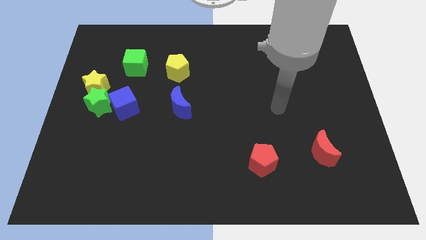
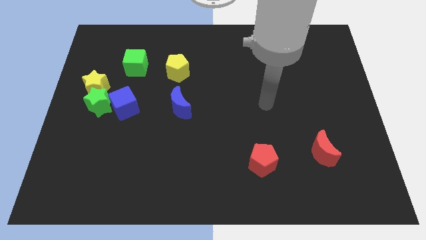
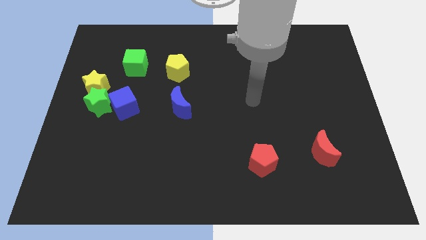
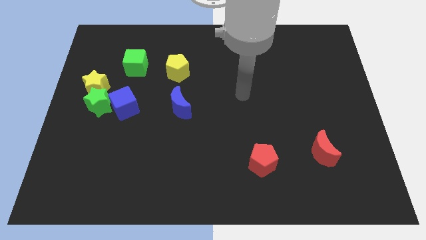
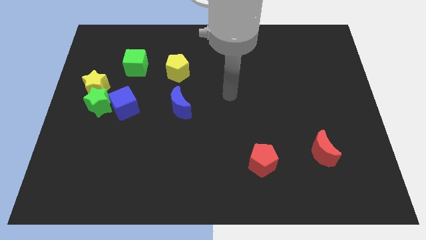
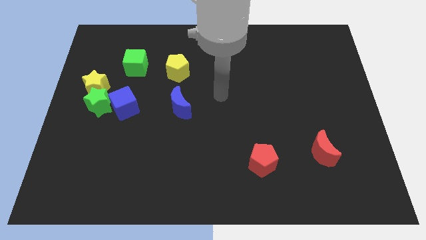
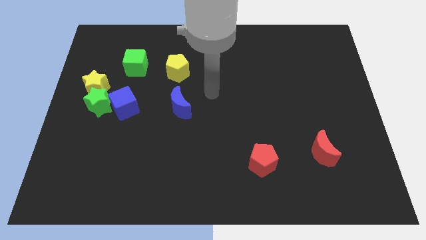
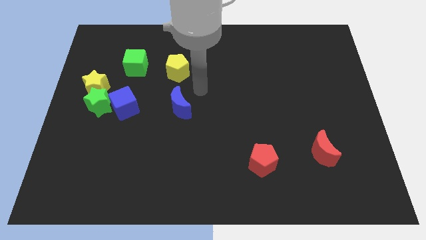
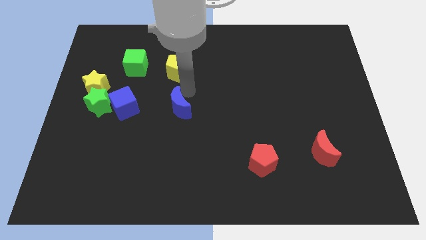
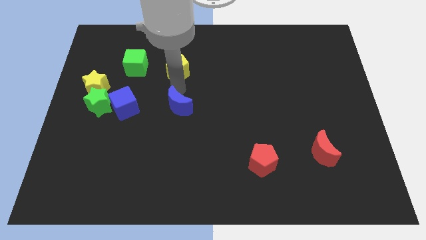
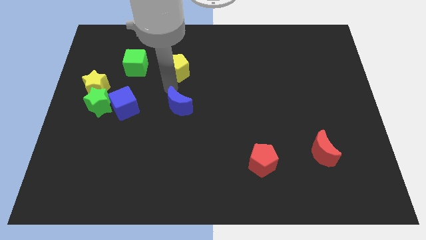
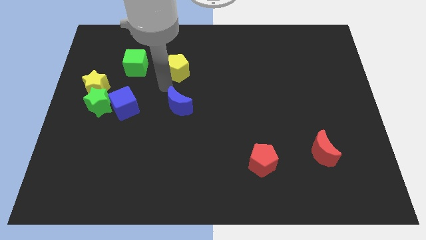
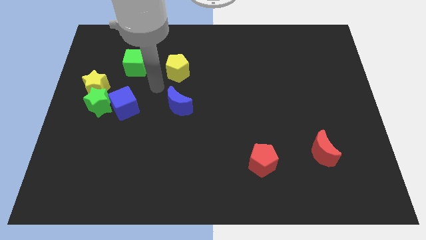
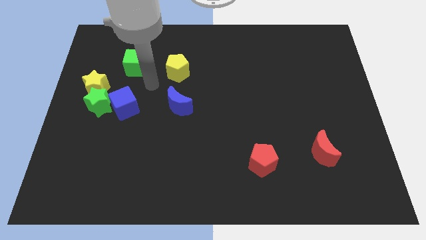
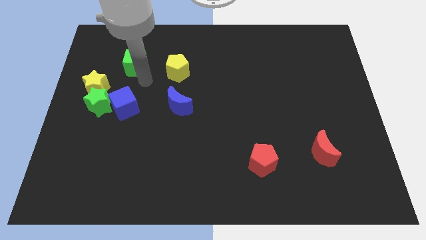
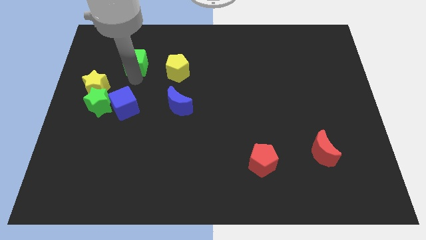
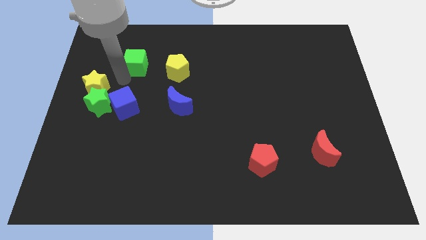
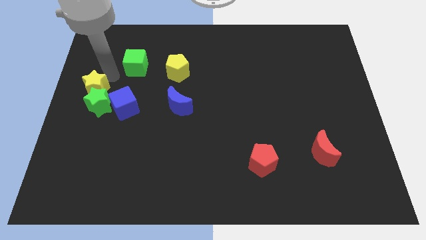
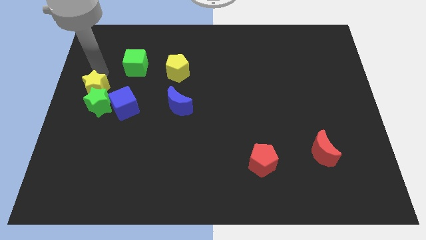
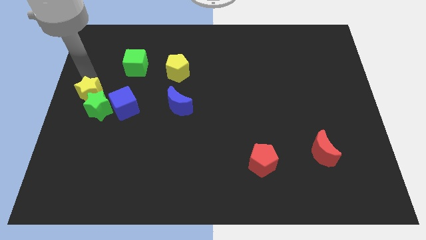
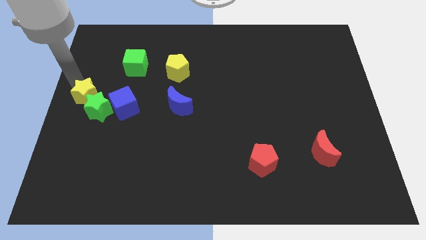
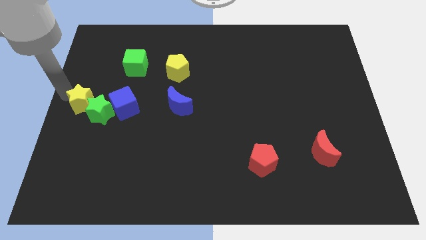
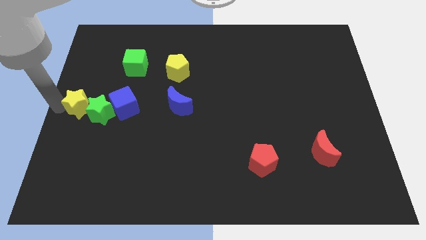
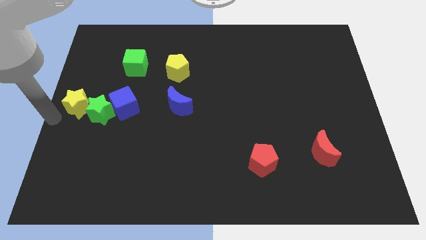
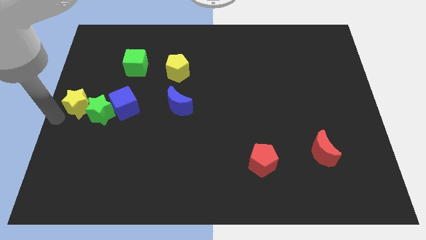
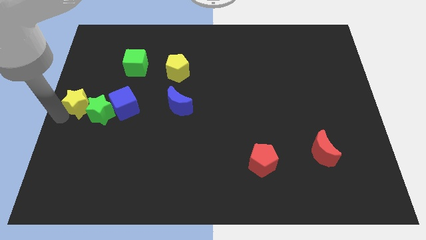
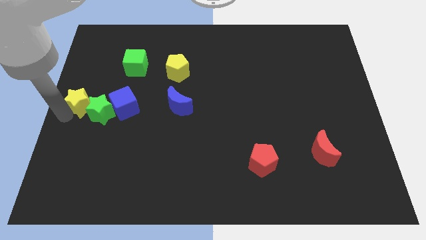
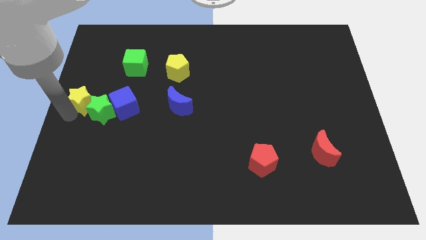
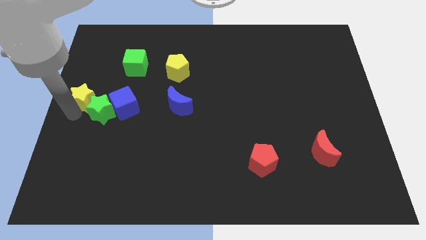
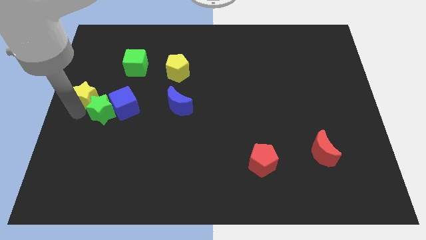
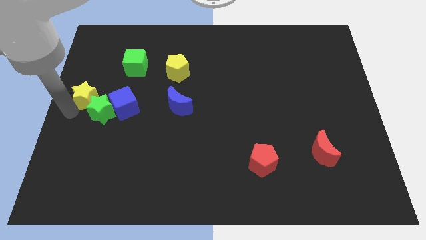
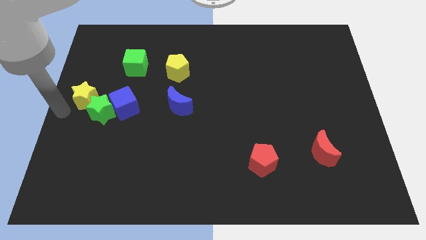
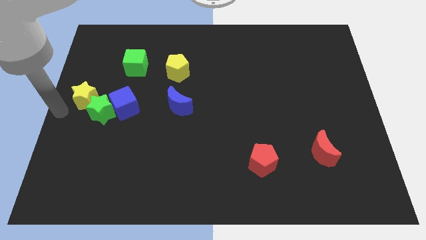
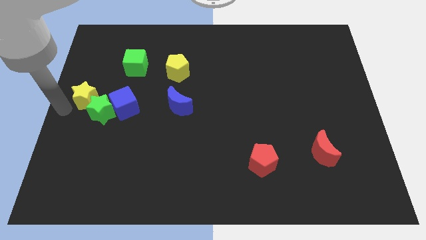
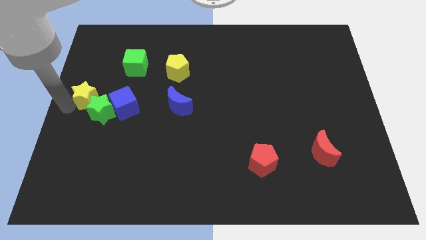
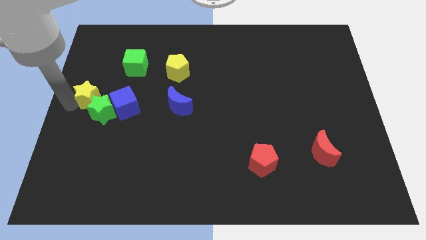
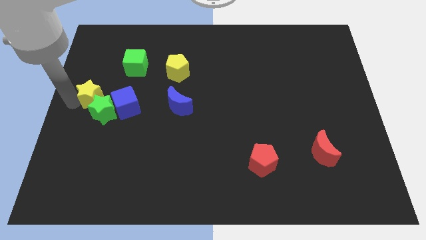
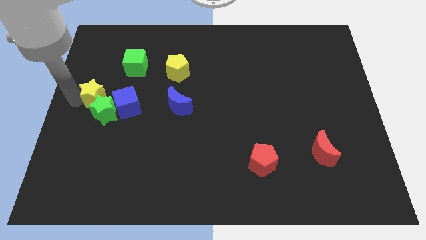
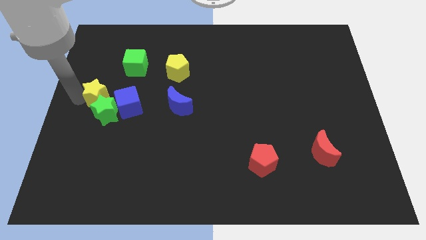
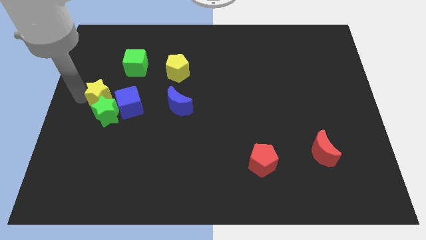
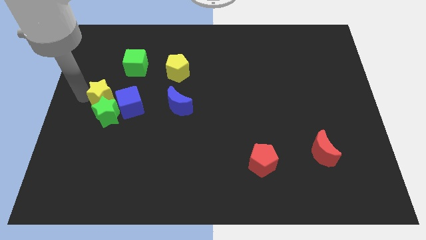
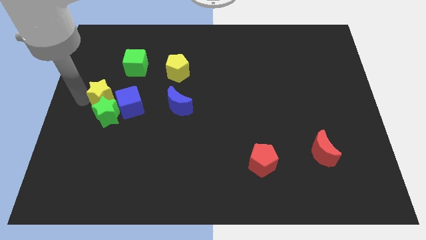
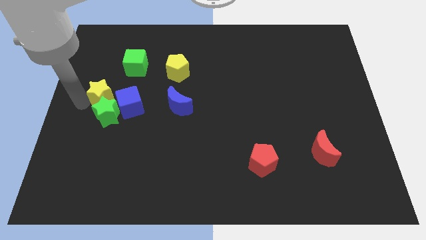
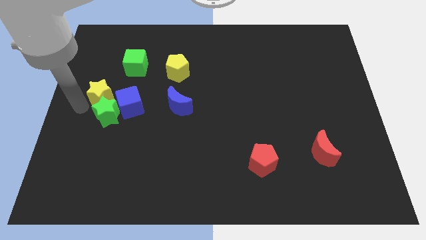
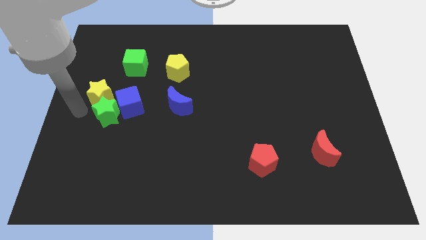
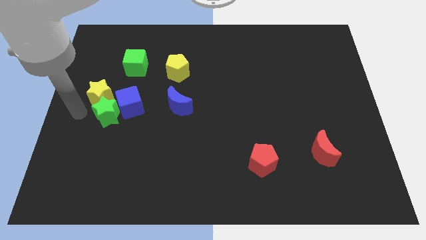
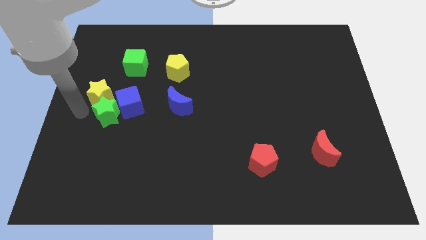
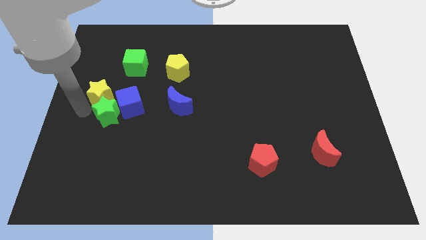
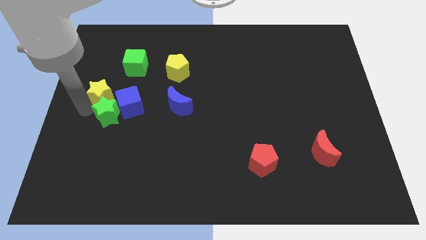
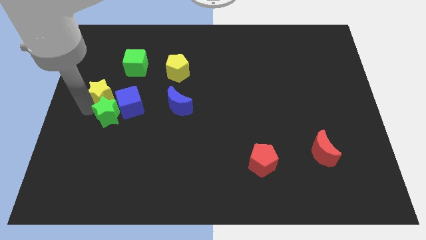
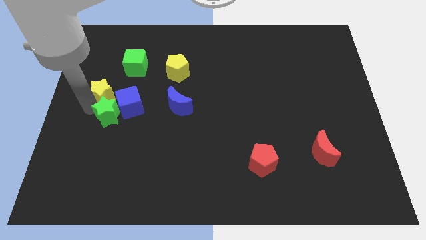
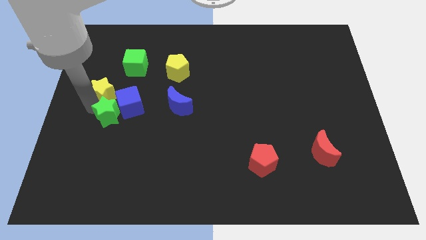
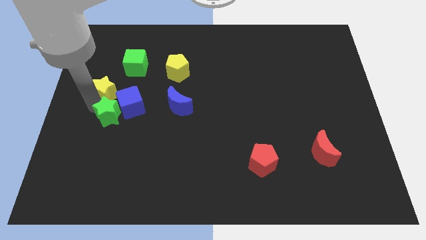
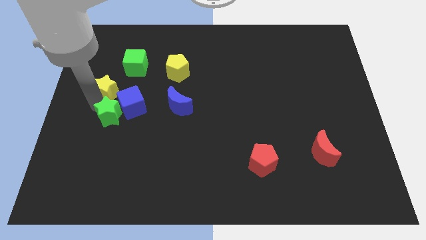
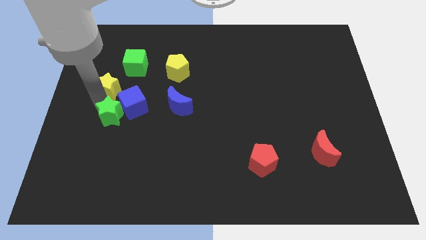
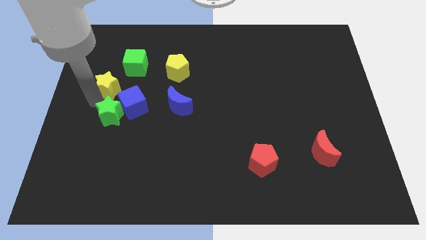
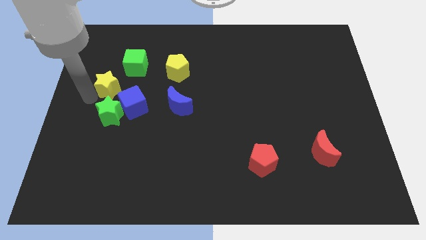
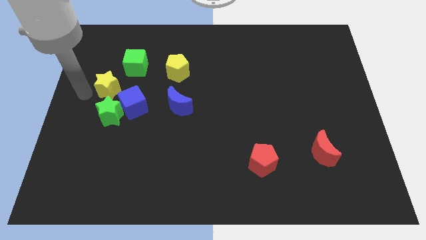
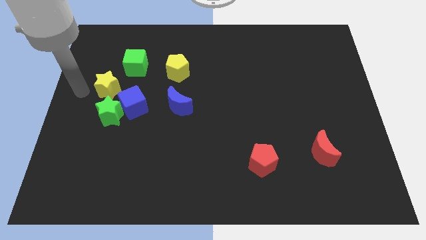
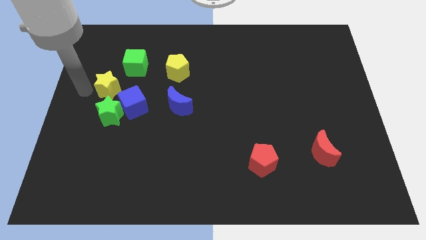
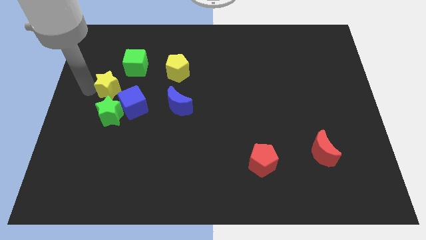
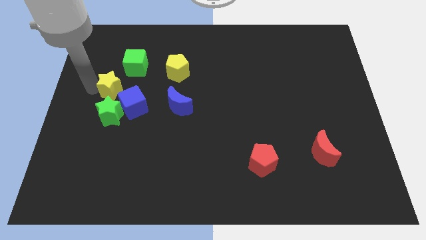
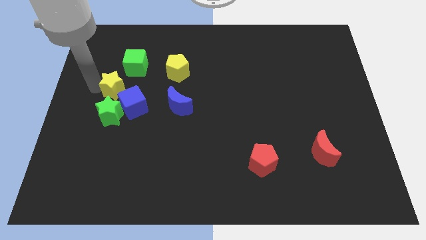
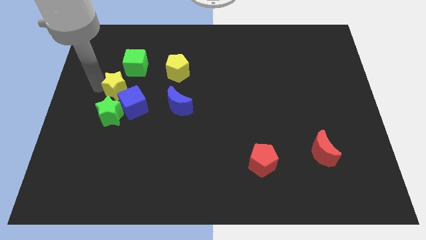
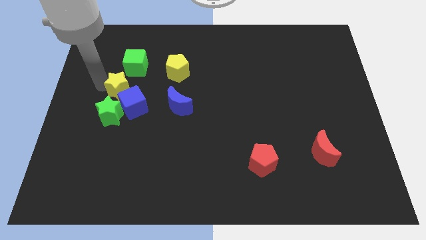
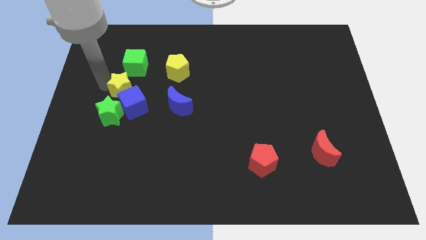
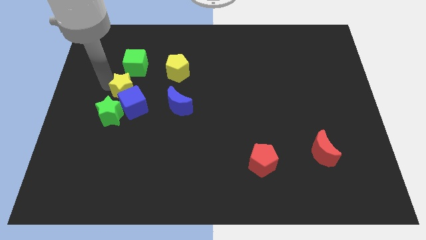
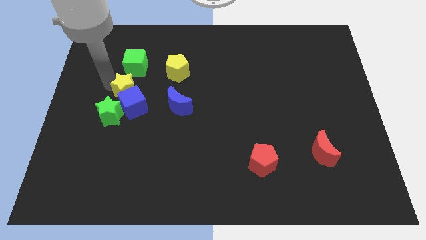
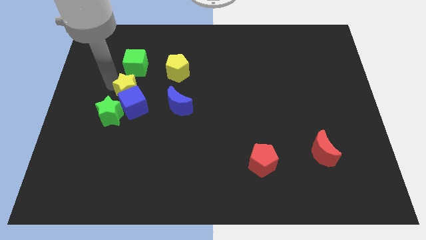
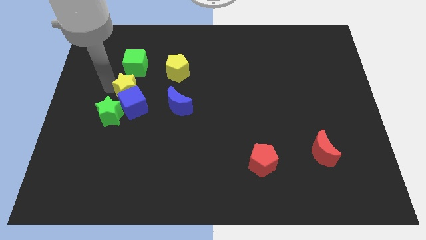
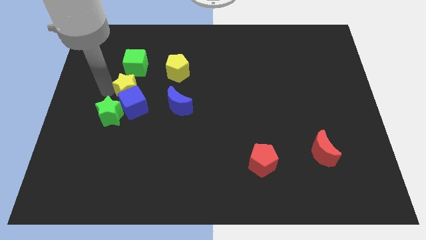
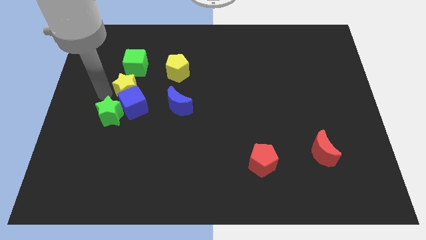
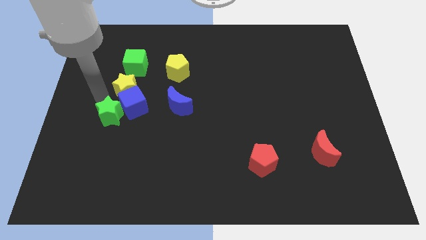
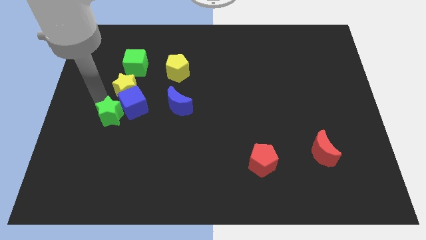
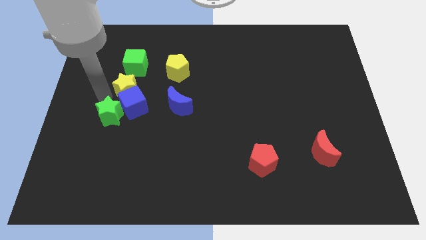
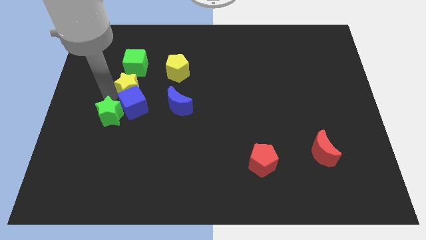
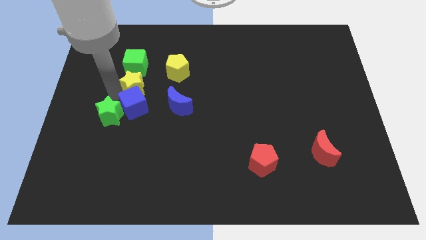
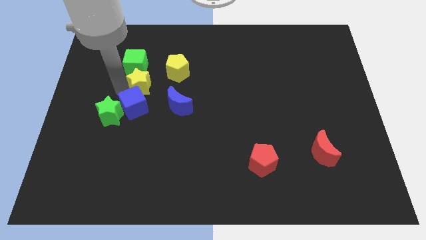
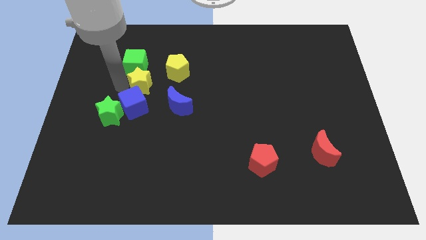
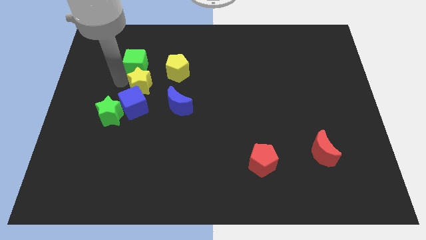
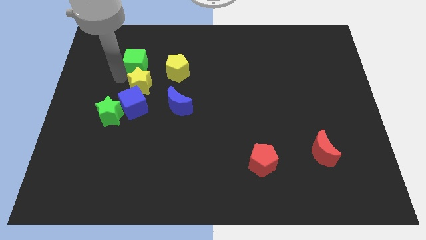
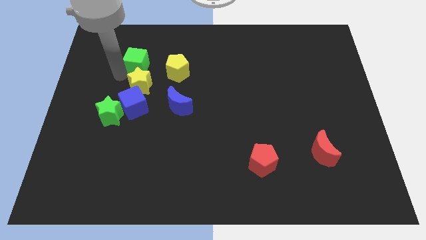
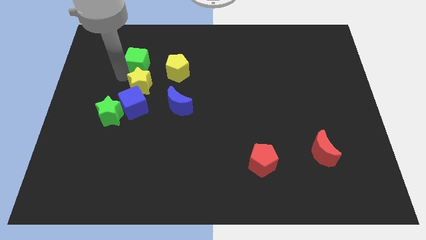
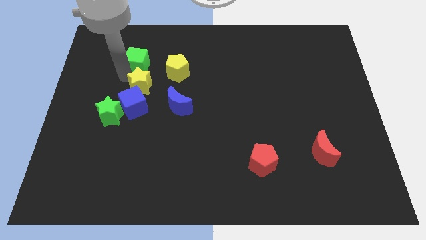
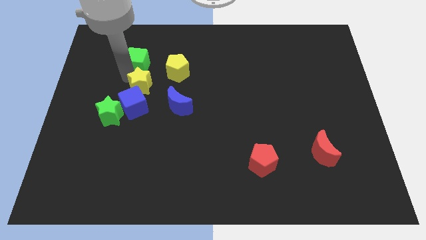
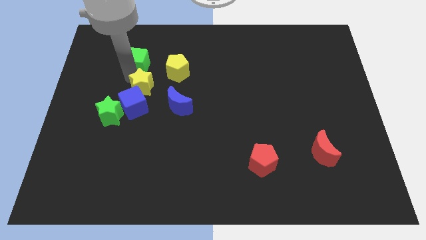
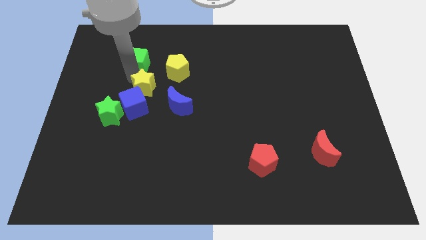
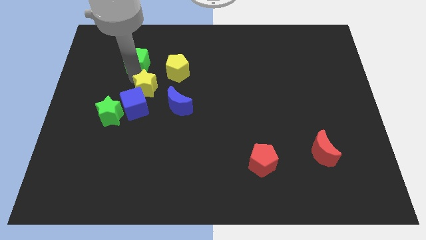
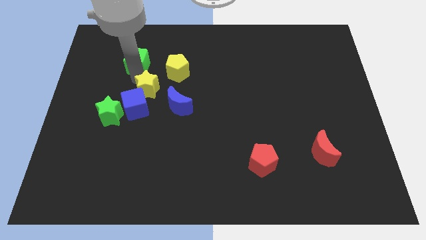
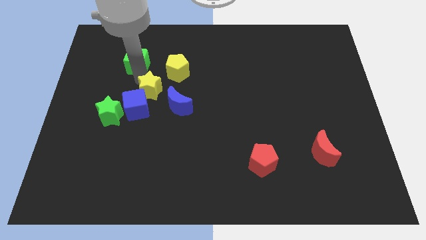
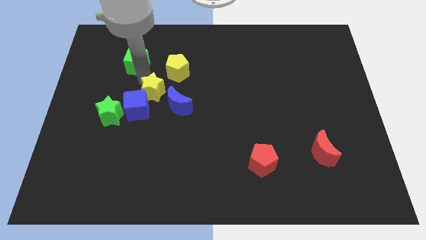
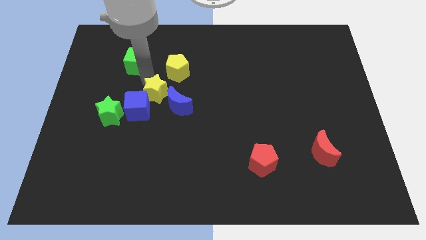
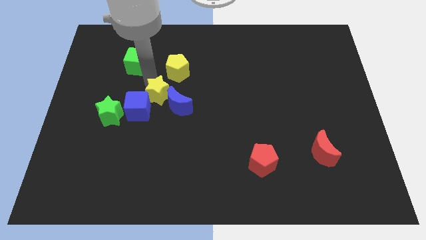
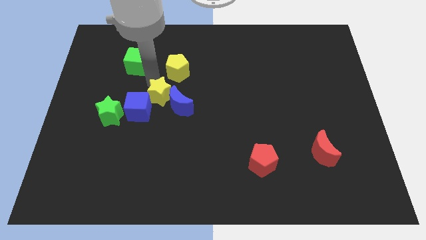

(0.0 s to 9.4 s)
put the yellow star close to the blue moon
